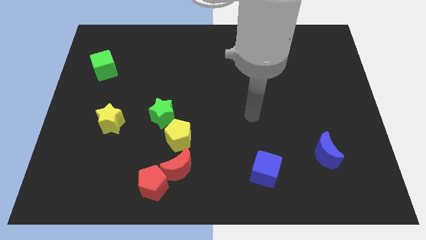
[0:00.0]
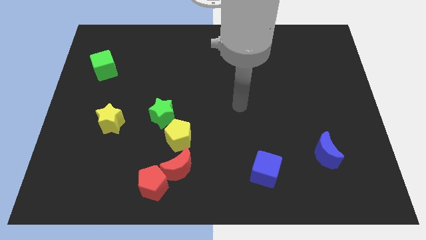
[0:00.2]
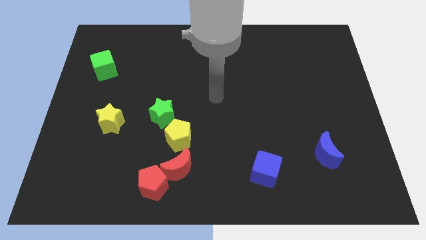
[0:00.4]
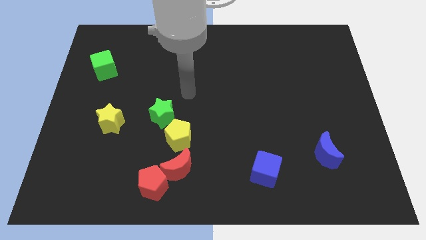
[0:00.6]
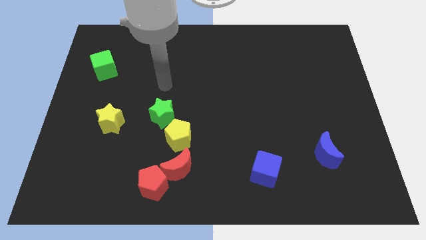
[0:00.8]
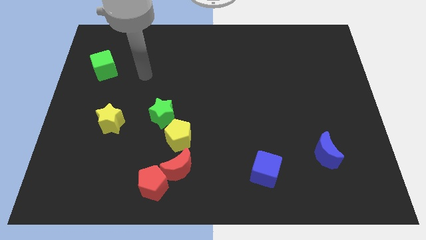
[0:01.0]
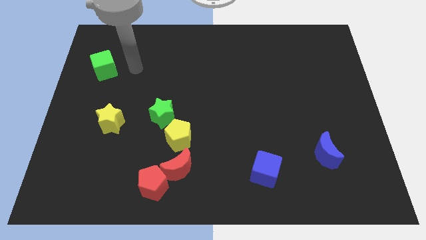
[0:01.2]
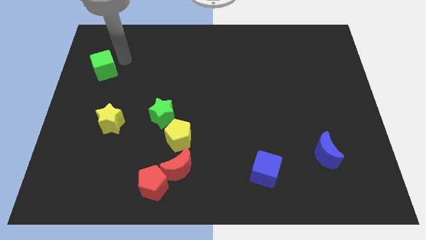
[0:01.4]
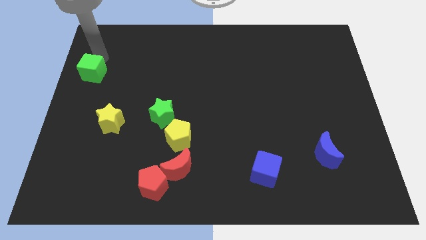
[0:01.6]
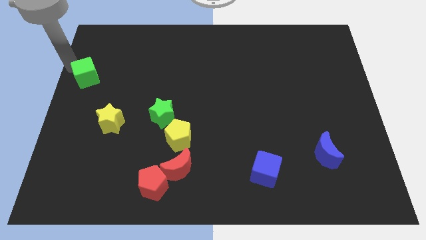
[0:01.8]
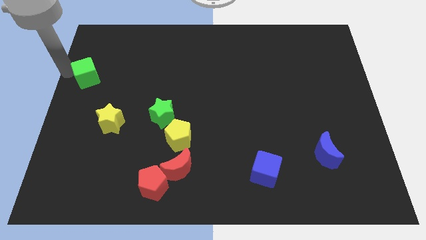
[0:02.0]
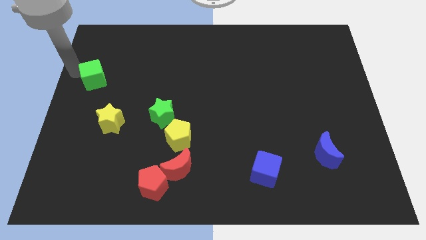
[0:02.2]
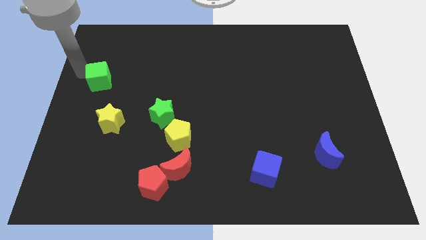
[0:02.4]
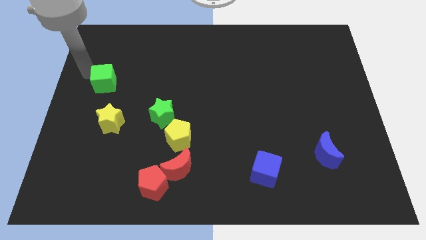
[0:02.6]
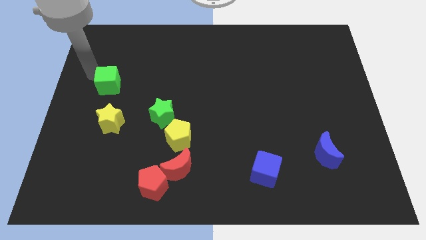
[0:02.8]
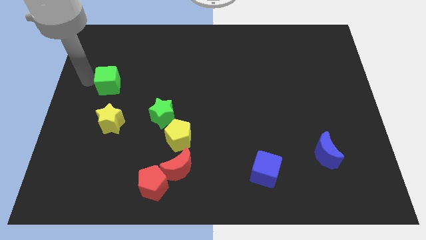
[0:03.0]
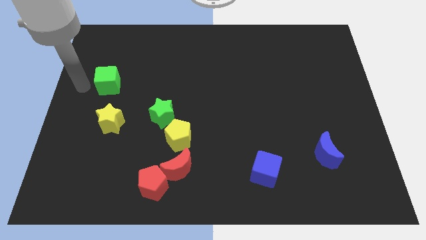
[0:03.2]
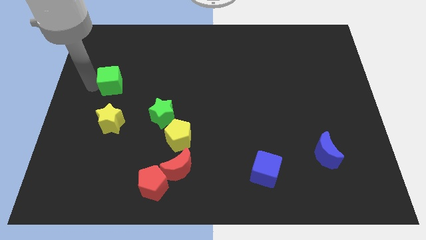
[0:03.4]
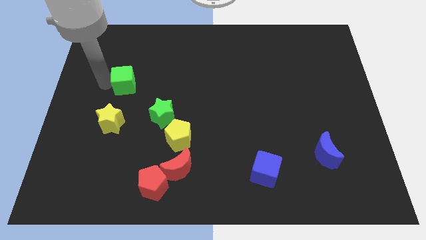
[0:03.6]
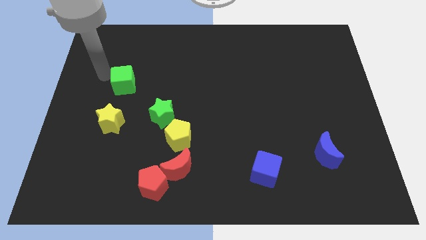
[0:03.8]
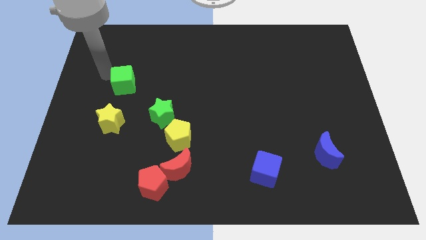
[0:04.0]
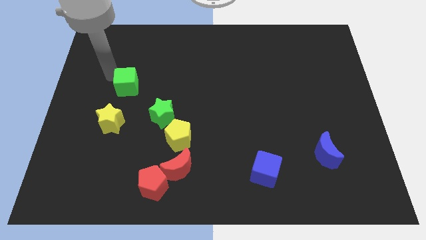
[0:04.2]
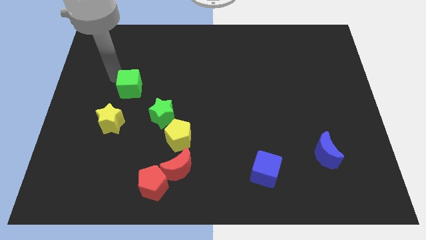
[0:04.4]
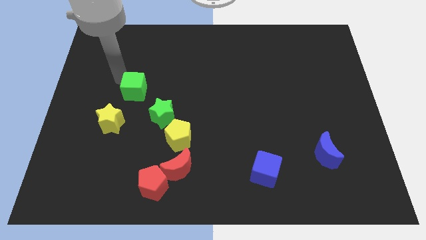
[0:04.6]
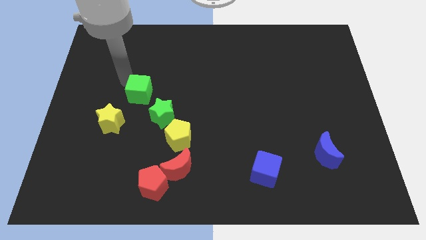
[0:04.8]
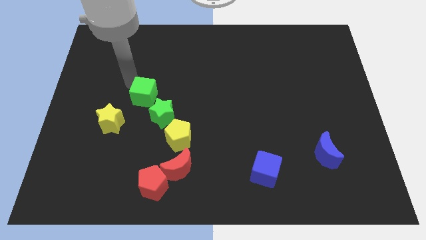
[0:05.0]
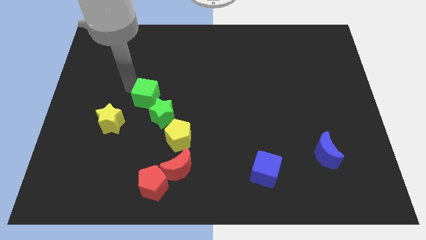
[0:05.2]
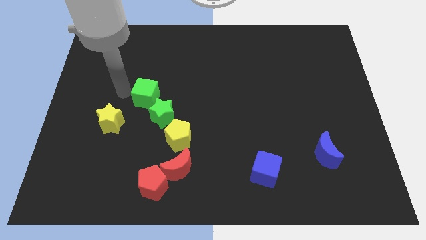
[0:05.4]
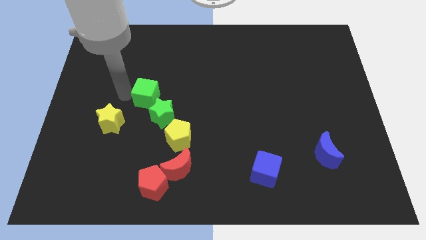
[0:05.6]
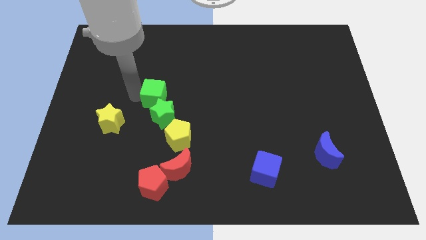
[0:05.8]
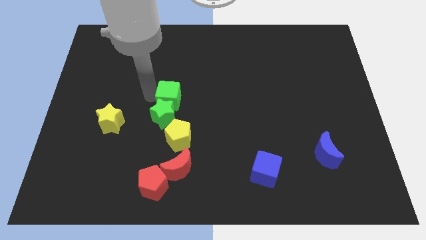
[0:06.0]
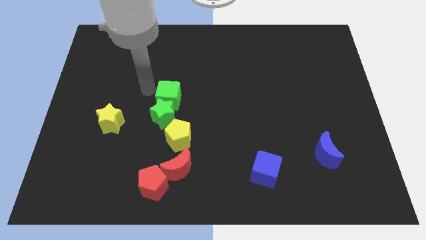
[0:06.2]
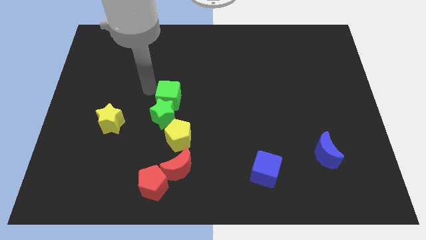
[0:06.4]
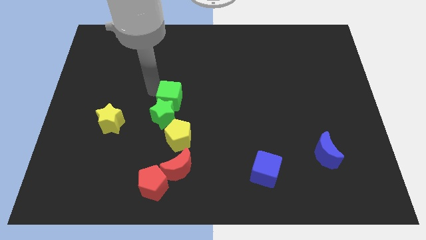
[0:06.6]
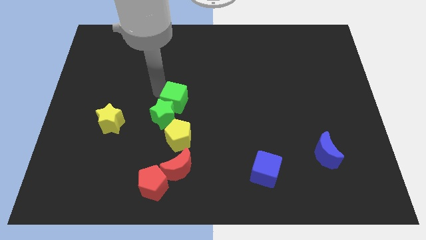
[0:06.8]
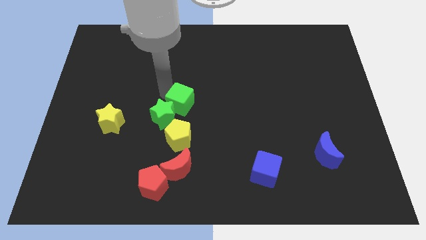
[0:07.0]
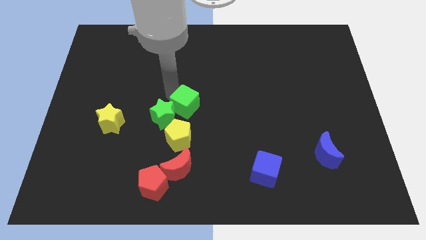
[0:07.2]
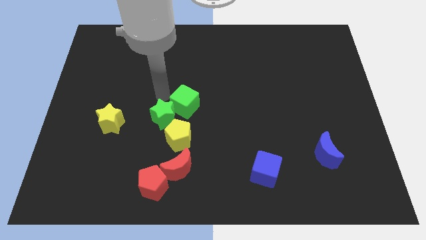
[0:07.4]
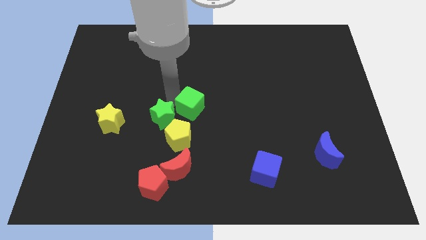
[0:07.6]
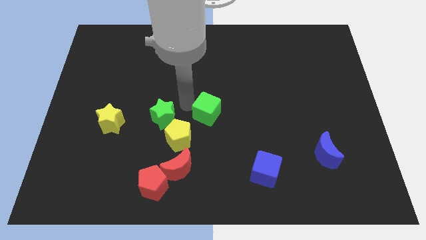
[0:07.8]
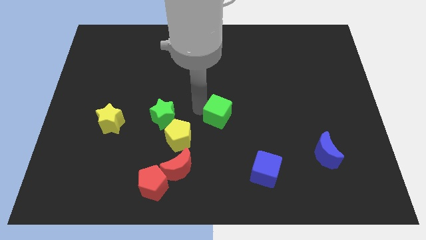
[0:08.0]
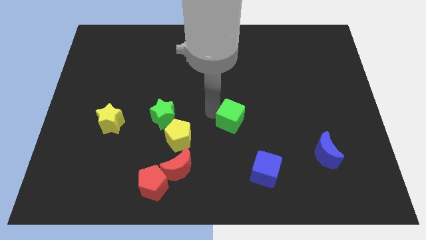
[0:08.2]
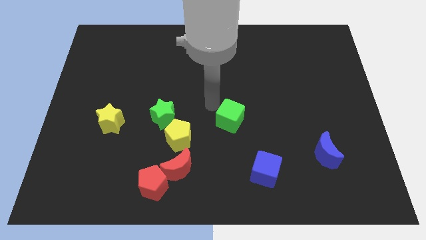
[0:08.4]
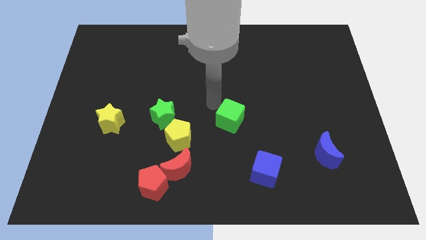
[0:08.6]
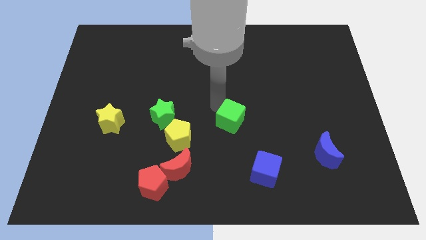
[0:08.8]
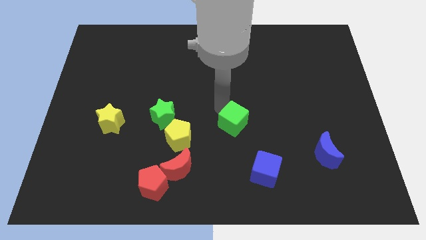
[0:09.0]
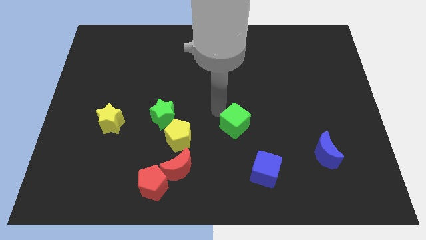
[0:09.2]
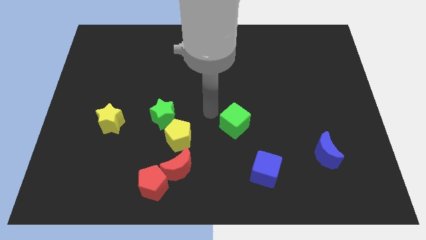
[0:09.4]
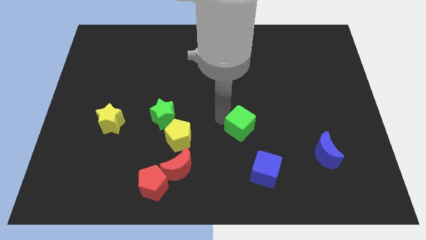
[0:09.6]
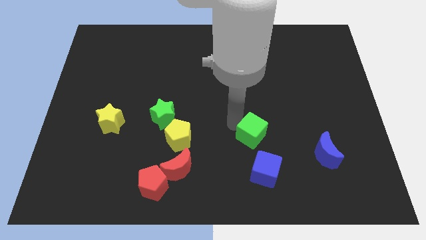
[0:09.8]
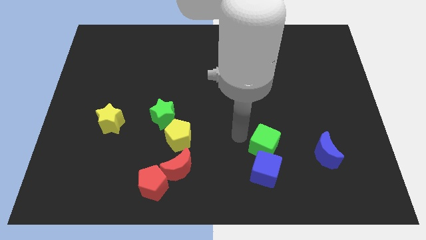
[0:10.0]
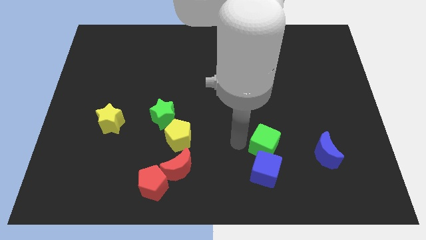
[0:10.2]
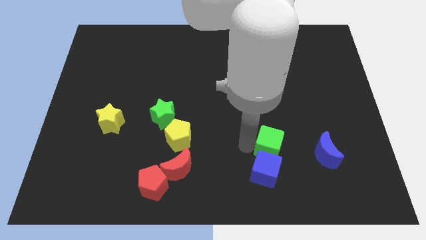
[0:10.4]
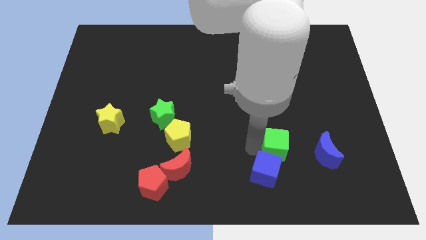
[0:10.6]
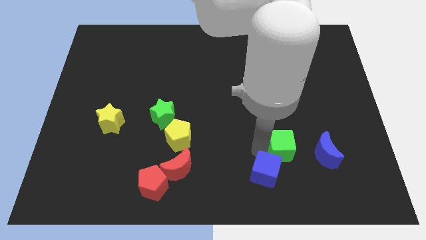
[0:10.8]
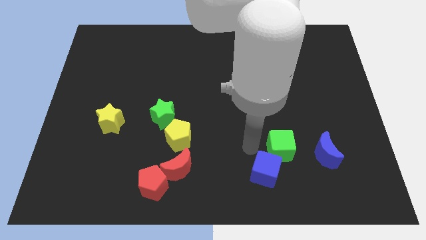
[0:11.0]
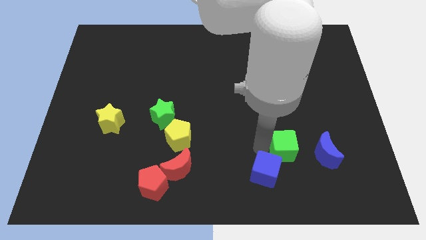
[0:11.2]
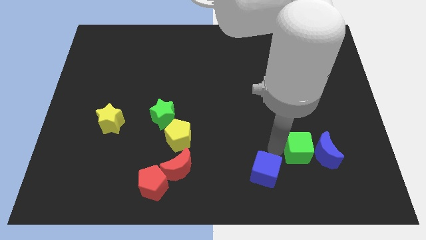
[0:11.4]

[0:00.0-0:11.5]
push the green cube to the blue moon

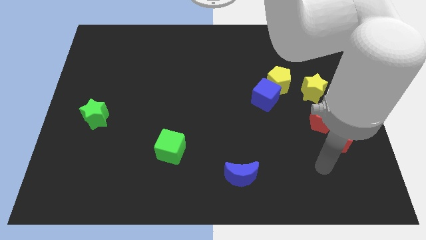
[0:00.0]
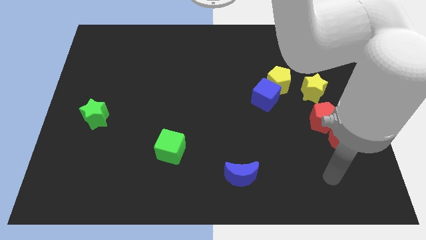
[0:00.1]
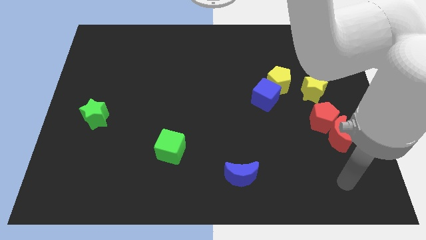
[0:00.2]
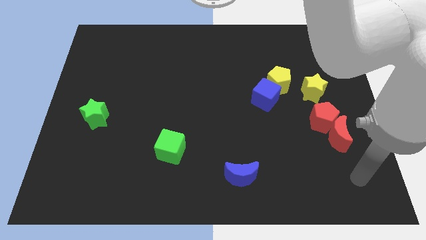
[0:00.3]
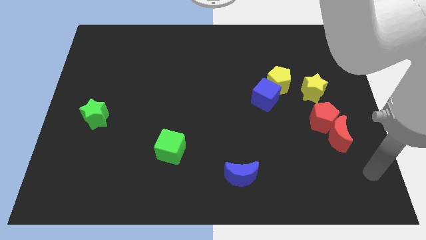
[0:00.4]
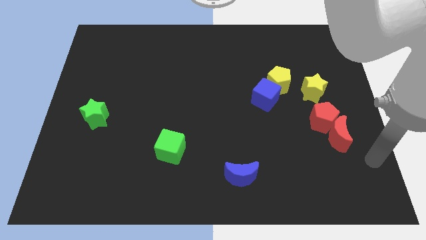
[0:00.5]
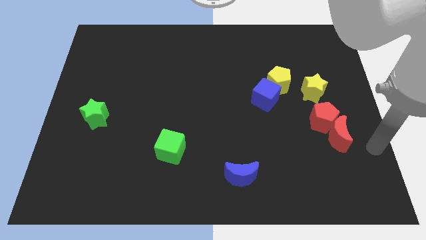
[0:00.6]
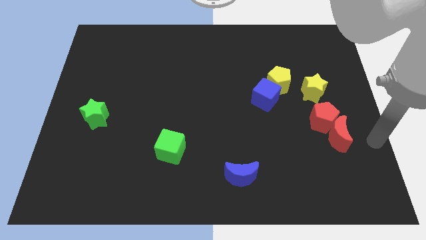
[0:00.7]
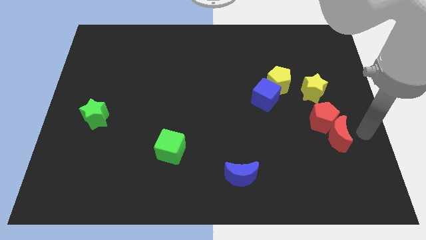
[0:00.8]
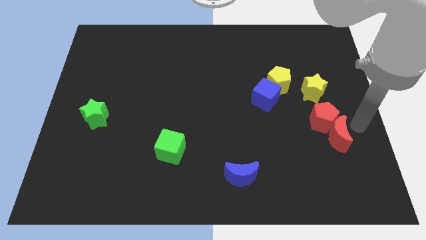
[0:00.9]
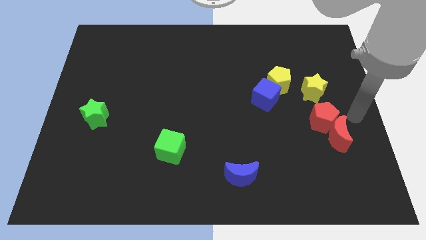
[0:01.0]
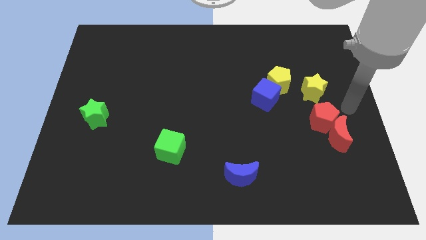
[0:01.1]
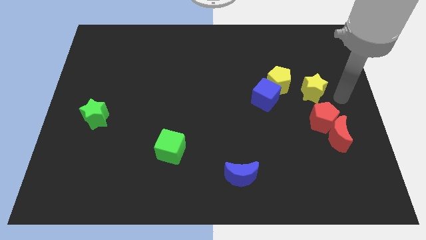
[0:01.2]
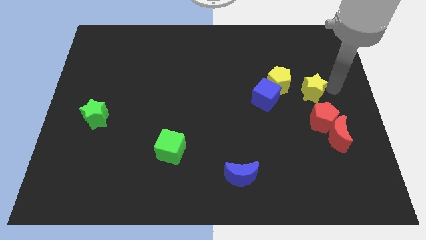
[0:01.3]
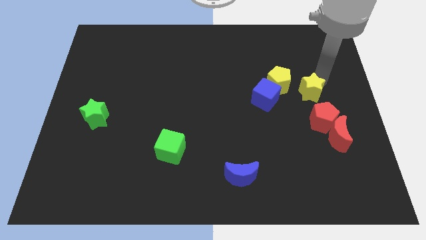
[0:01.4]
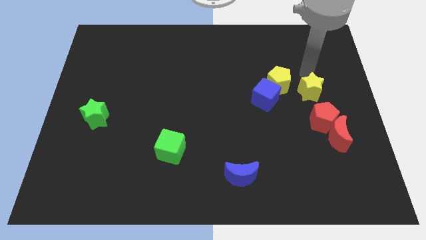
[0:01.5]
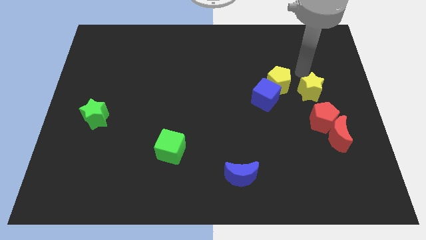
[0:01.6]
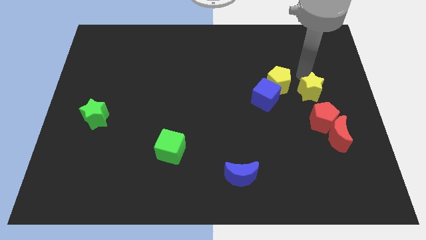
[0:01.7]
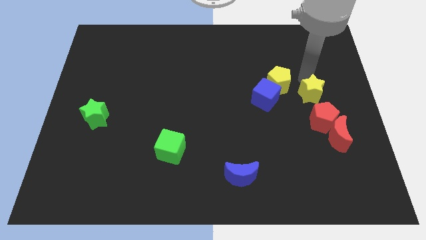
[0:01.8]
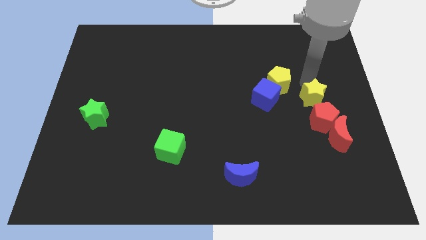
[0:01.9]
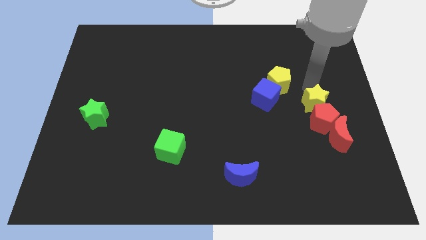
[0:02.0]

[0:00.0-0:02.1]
put the yellow star close to the red pentagon
